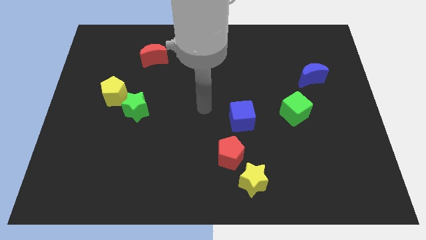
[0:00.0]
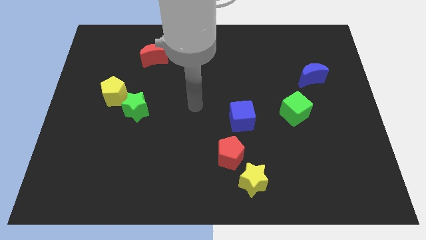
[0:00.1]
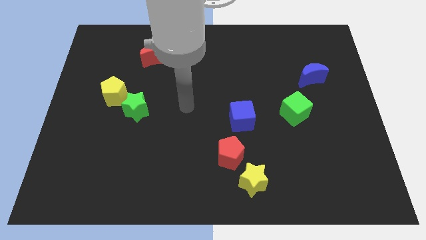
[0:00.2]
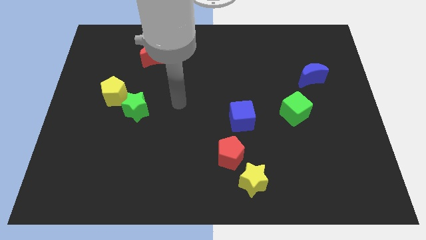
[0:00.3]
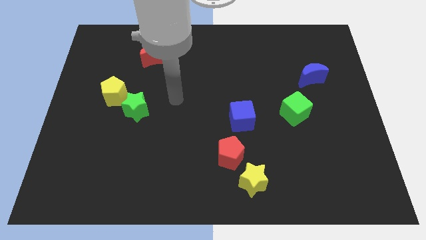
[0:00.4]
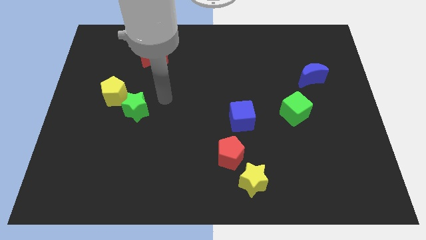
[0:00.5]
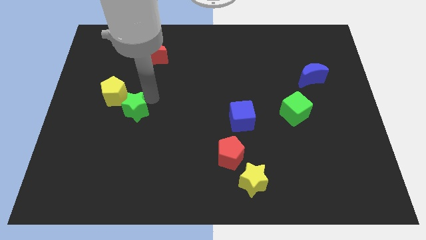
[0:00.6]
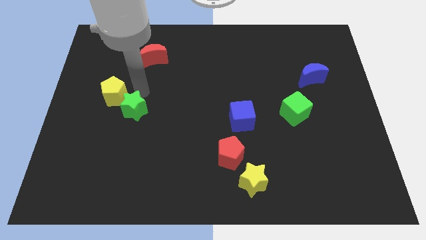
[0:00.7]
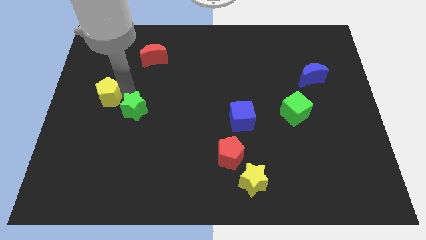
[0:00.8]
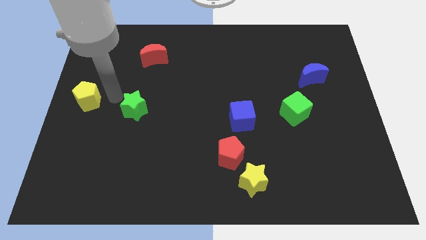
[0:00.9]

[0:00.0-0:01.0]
move the green star away from the yellow pentagon

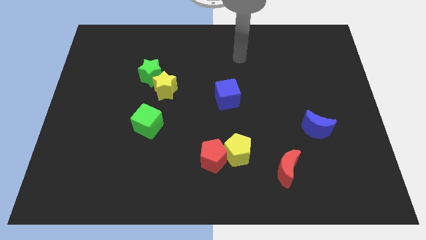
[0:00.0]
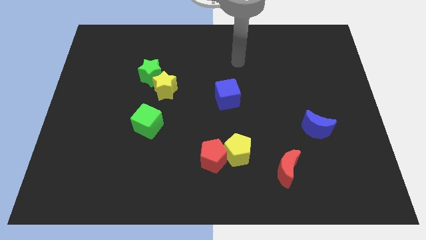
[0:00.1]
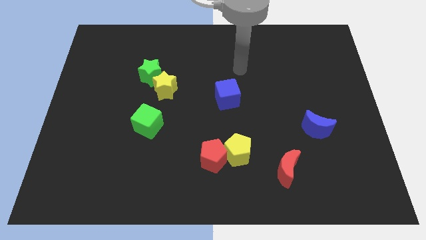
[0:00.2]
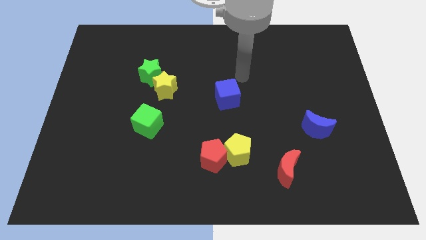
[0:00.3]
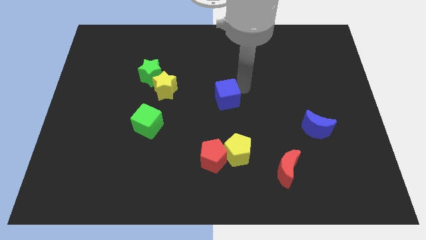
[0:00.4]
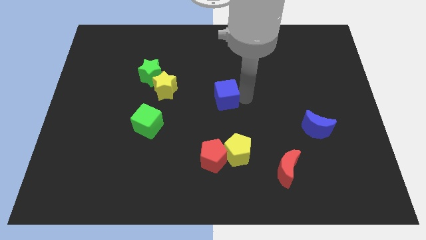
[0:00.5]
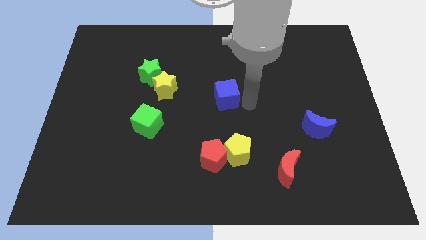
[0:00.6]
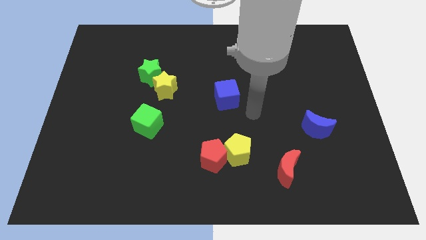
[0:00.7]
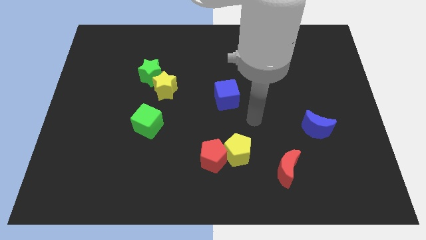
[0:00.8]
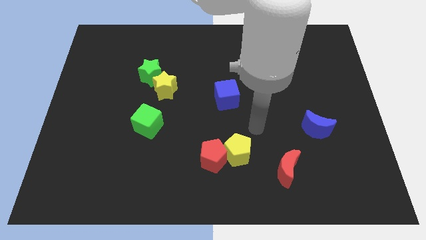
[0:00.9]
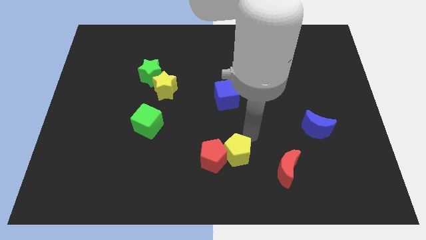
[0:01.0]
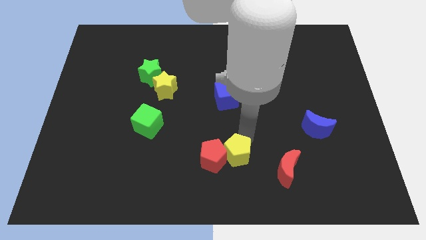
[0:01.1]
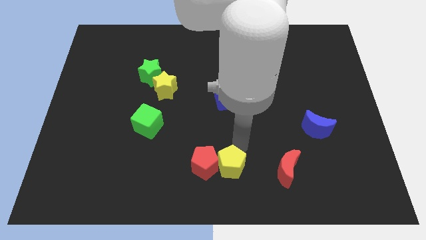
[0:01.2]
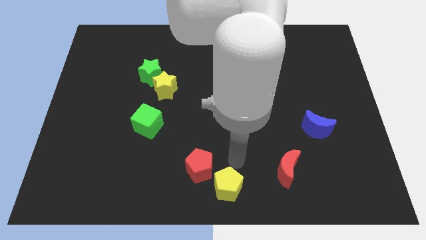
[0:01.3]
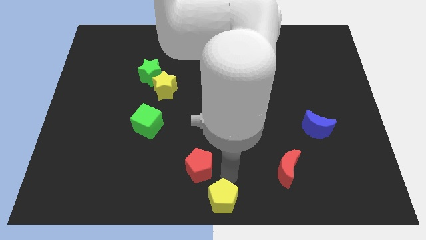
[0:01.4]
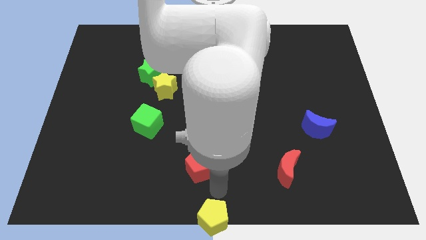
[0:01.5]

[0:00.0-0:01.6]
move the red pentagon away from the yellow pentagon

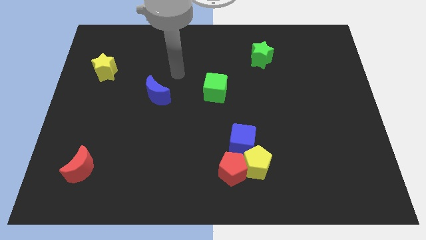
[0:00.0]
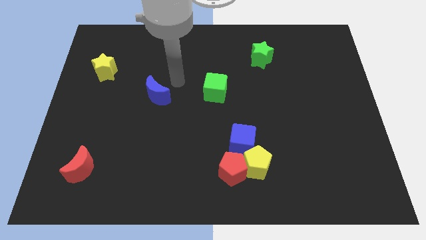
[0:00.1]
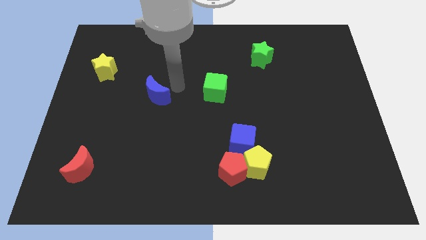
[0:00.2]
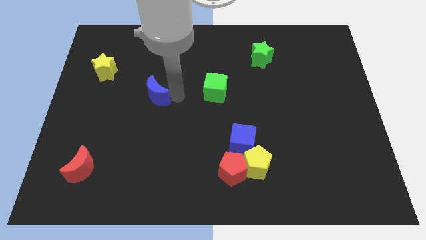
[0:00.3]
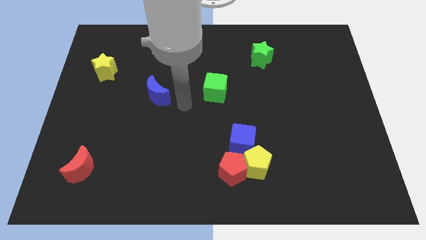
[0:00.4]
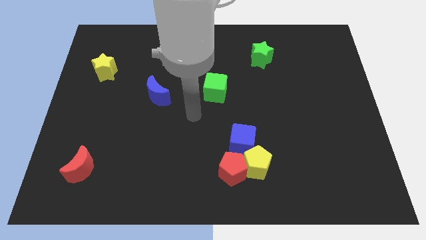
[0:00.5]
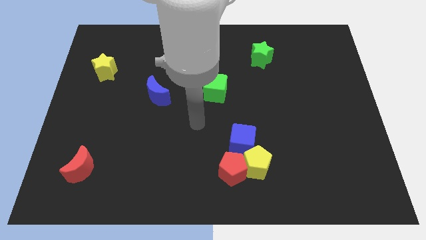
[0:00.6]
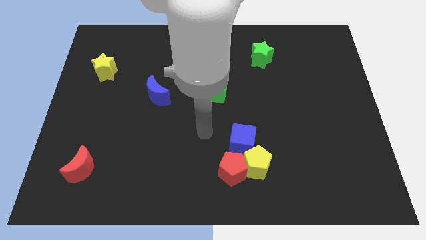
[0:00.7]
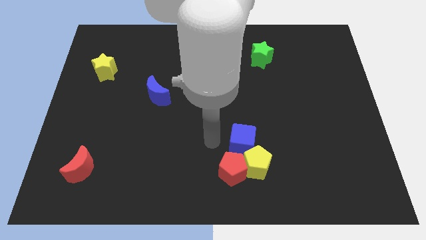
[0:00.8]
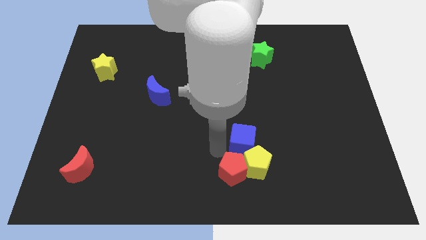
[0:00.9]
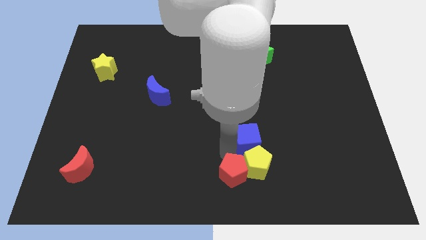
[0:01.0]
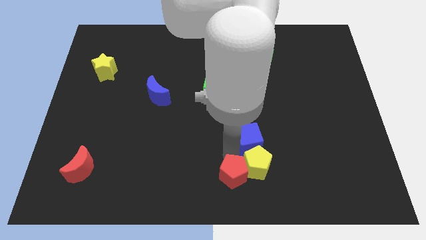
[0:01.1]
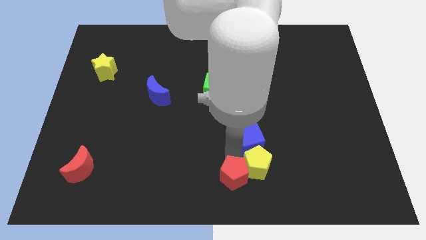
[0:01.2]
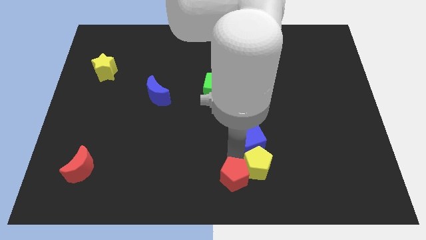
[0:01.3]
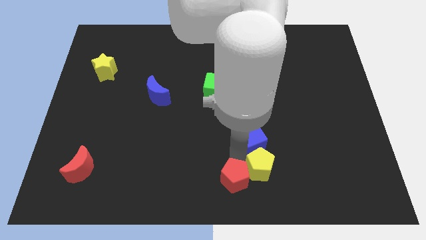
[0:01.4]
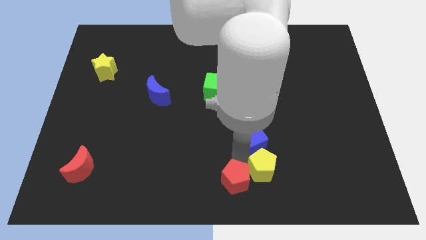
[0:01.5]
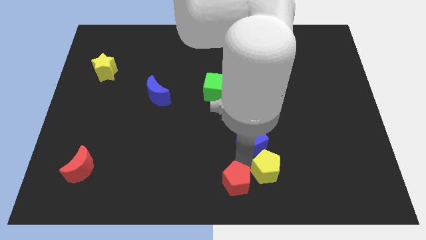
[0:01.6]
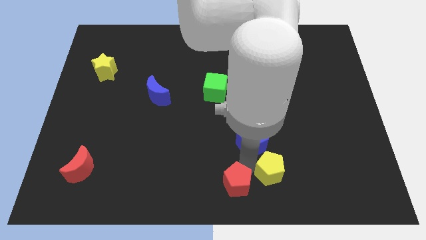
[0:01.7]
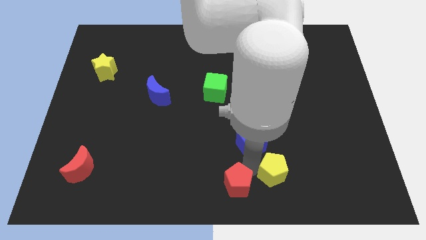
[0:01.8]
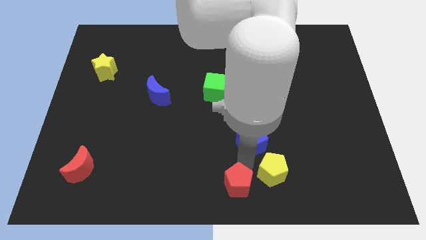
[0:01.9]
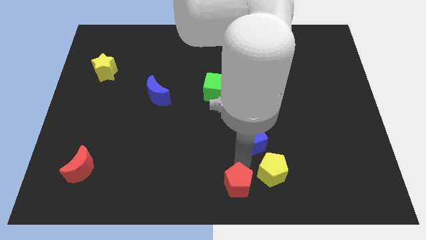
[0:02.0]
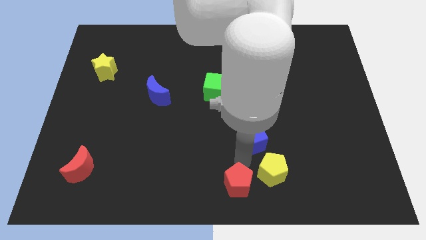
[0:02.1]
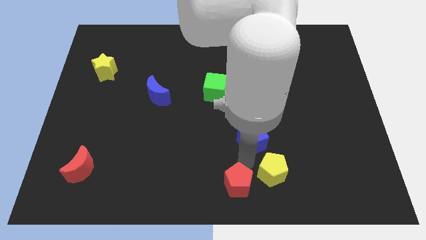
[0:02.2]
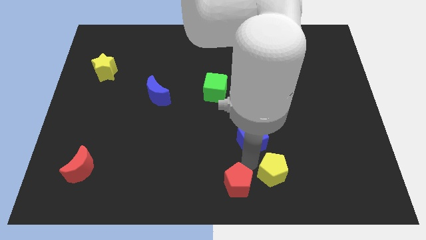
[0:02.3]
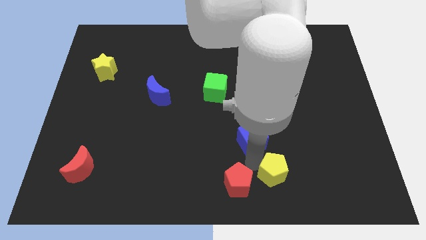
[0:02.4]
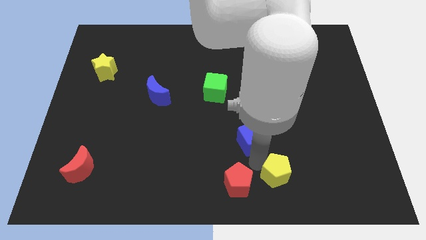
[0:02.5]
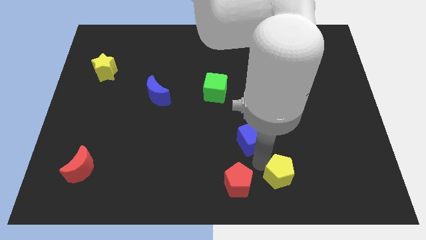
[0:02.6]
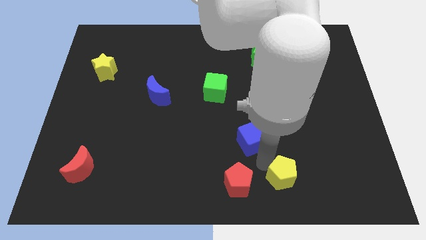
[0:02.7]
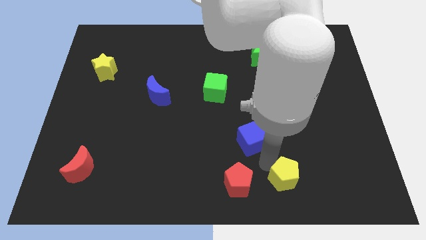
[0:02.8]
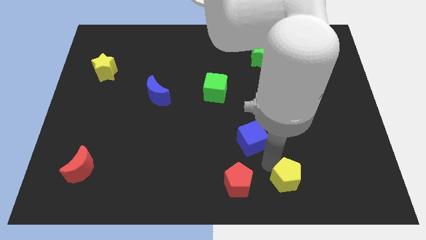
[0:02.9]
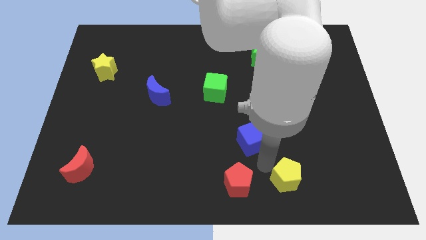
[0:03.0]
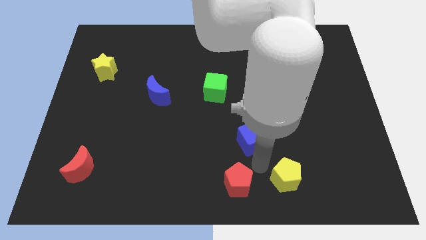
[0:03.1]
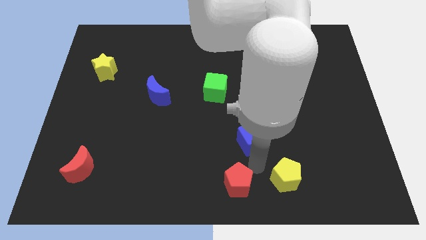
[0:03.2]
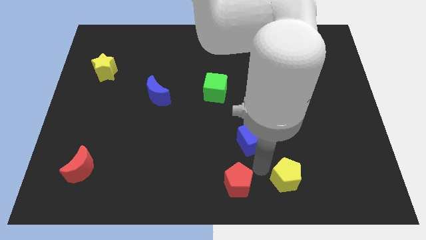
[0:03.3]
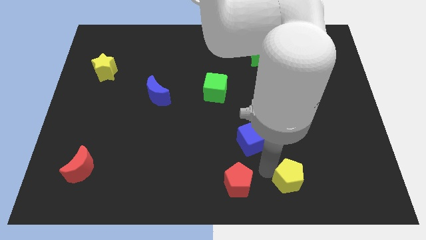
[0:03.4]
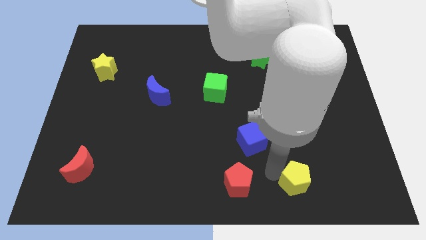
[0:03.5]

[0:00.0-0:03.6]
pull the yellow pentagon apart from the red pentagon and blue cube

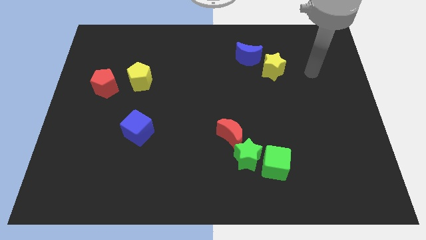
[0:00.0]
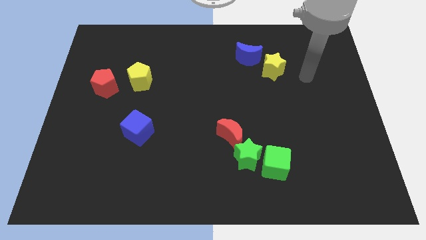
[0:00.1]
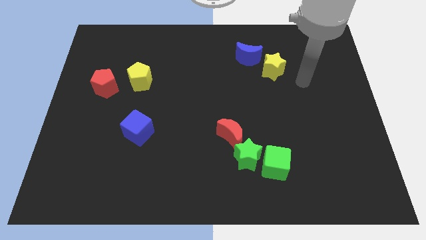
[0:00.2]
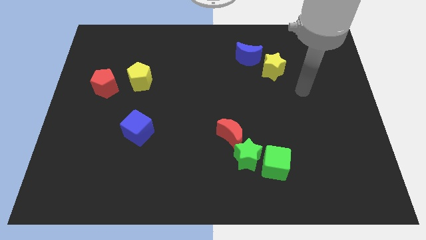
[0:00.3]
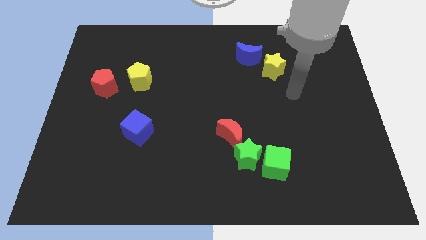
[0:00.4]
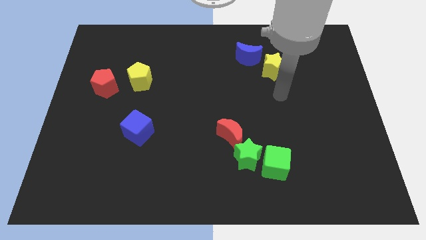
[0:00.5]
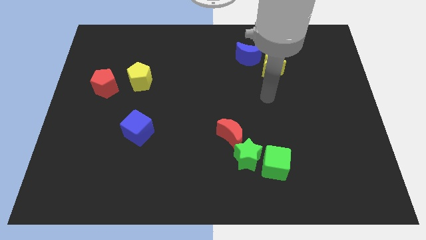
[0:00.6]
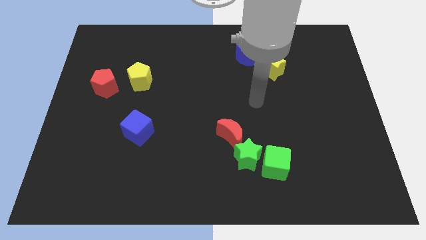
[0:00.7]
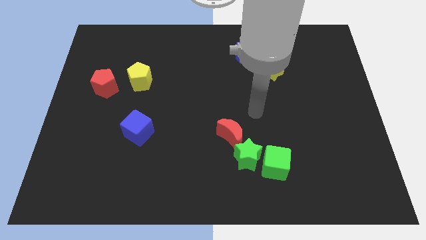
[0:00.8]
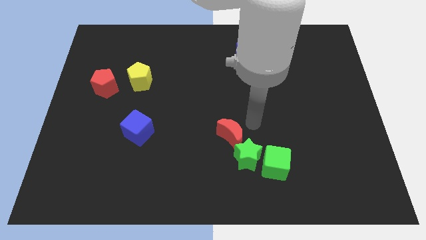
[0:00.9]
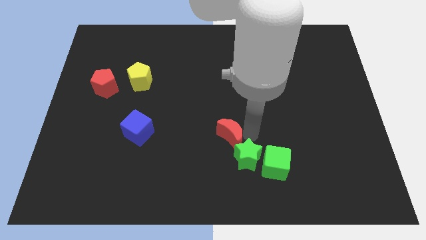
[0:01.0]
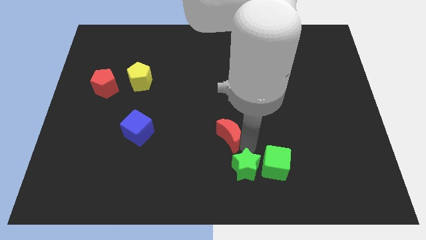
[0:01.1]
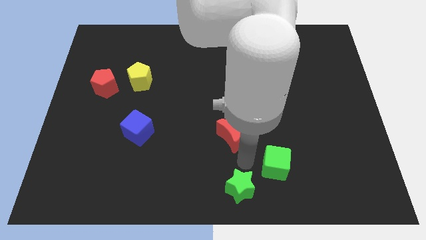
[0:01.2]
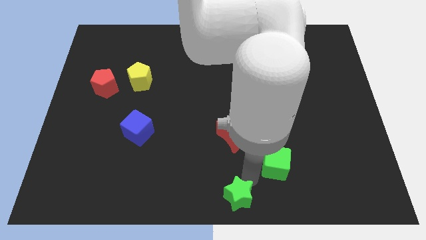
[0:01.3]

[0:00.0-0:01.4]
separate the green cube from the green star

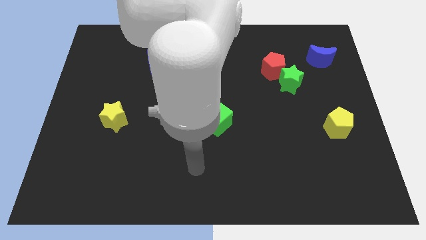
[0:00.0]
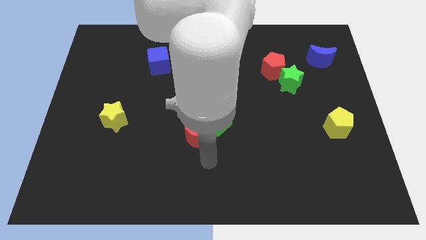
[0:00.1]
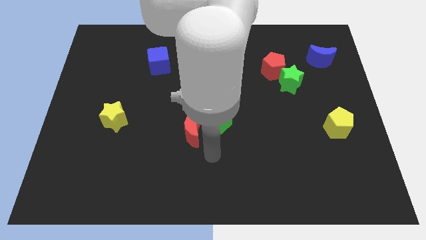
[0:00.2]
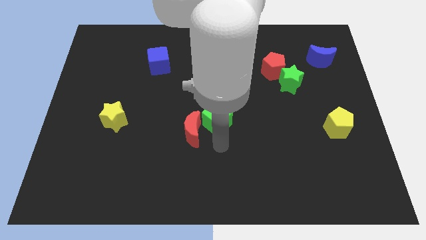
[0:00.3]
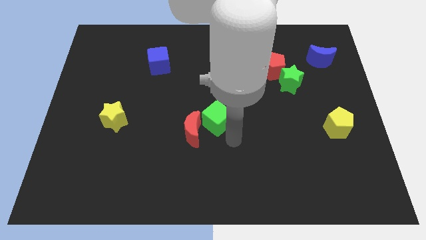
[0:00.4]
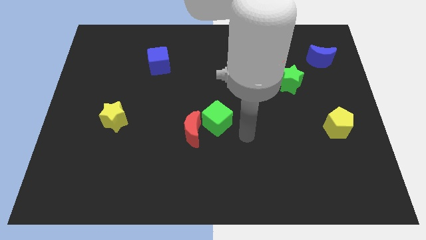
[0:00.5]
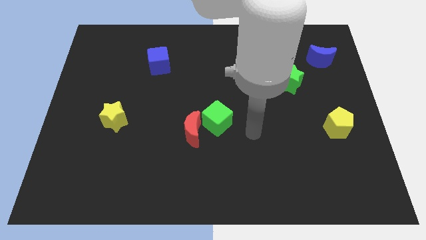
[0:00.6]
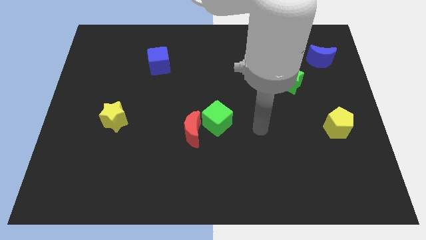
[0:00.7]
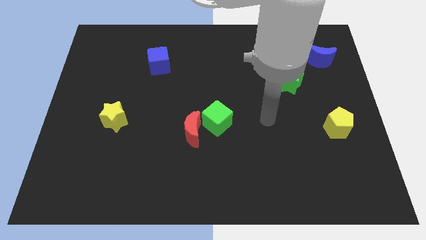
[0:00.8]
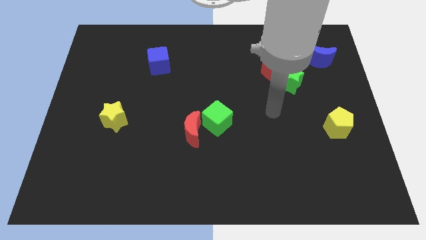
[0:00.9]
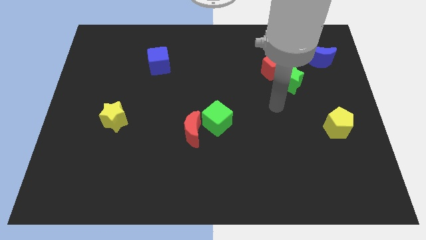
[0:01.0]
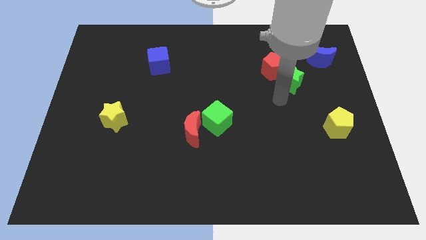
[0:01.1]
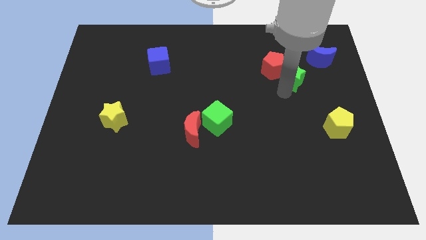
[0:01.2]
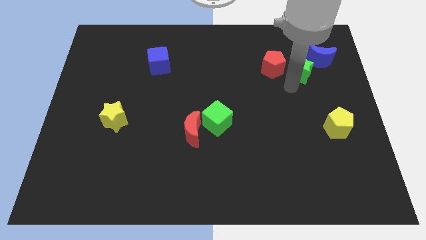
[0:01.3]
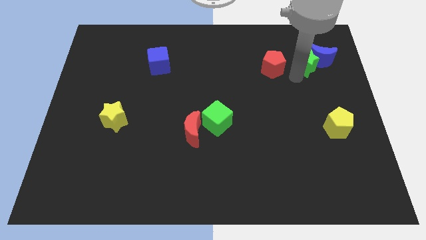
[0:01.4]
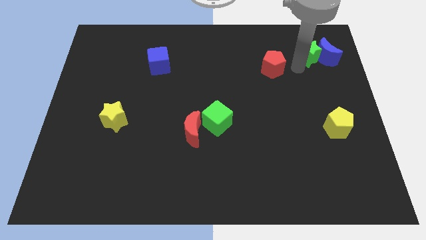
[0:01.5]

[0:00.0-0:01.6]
pull the red pentagon apart from the green star

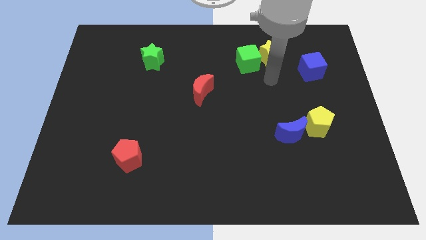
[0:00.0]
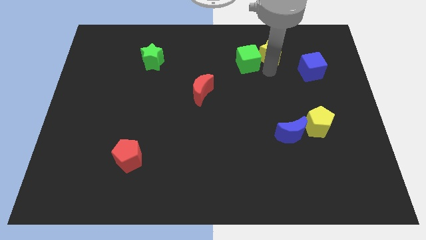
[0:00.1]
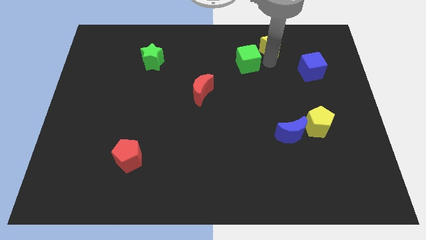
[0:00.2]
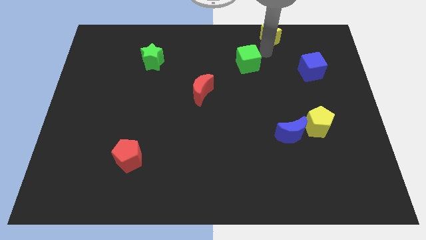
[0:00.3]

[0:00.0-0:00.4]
separate the green cube from the yellow star
